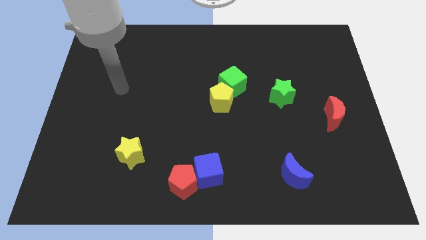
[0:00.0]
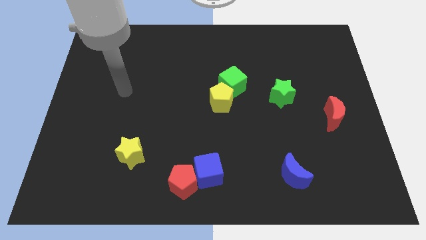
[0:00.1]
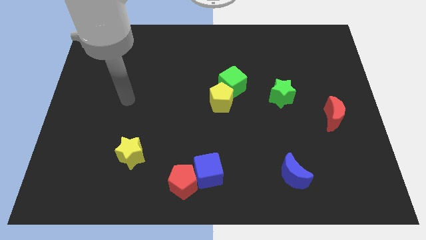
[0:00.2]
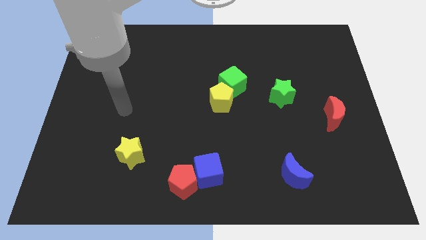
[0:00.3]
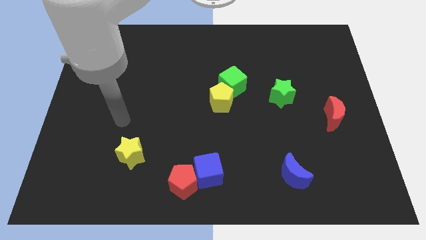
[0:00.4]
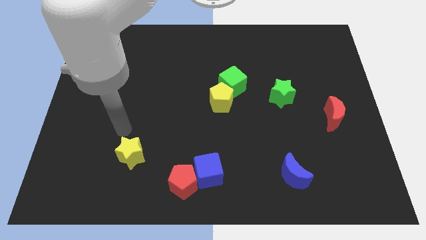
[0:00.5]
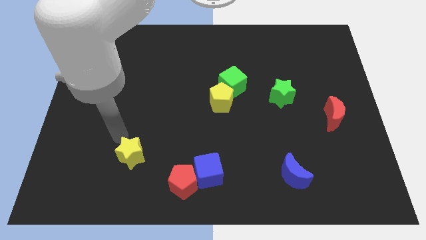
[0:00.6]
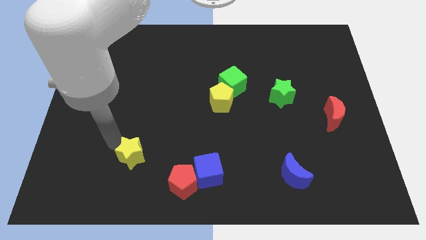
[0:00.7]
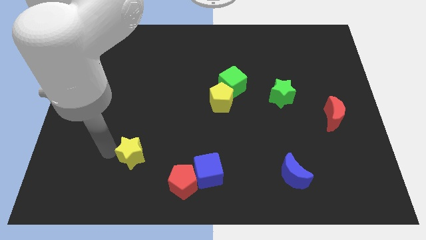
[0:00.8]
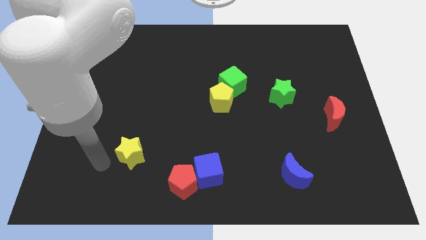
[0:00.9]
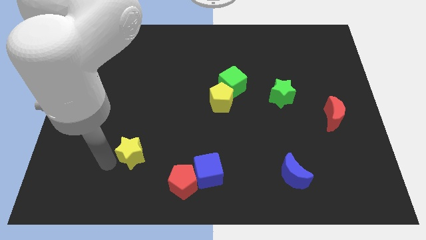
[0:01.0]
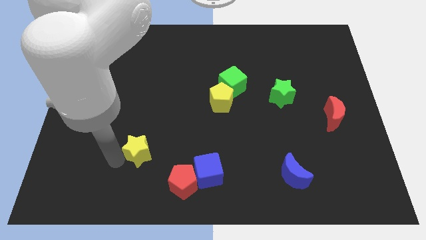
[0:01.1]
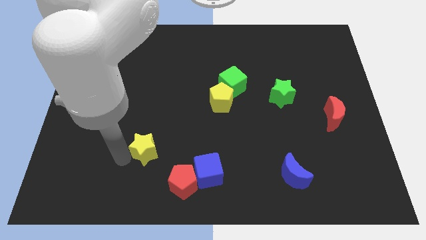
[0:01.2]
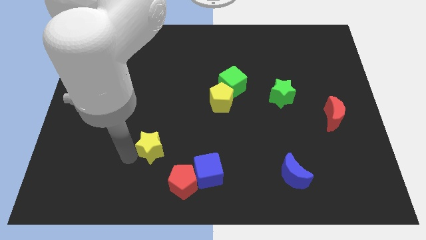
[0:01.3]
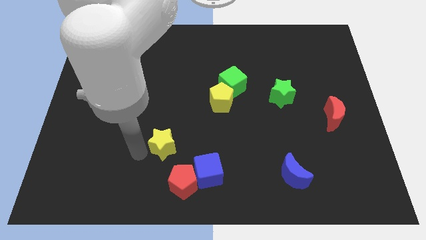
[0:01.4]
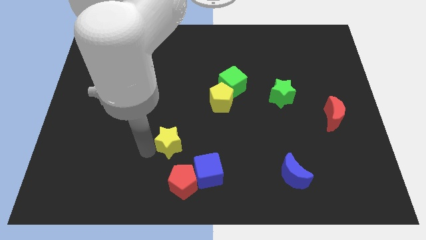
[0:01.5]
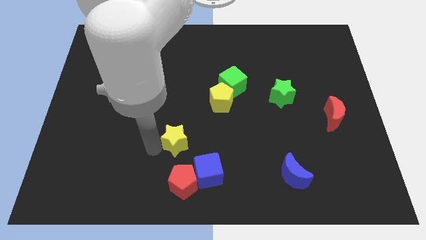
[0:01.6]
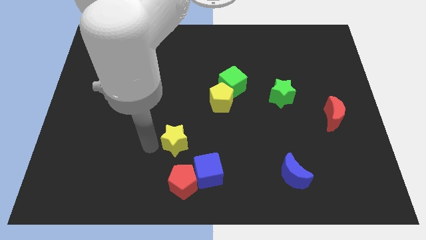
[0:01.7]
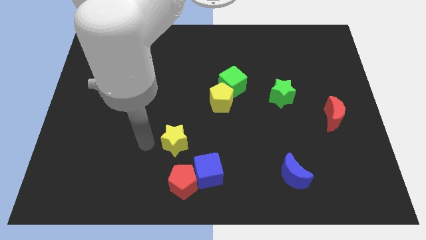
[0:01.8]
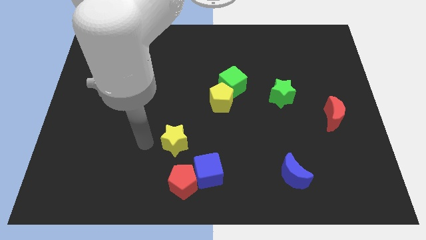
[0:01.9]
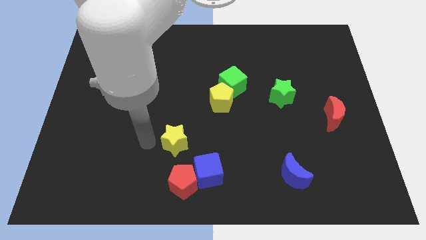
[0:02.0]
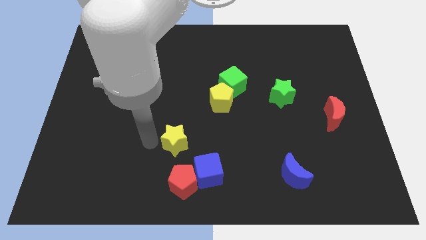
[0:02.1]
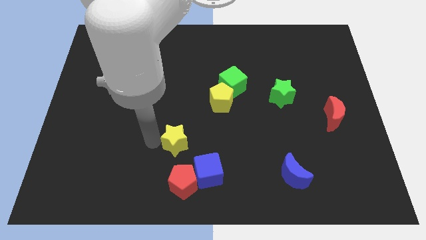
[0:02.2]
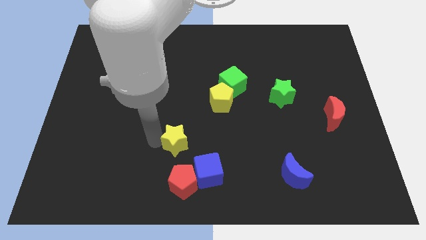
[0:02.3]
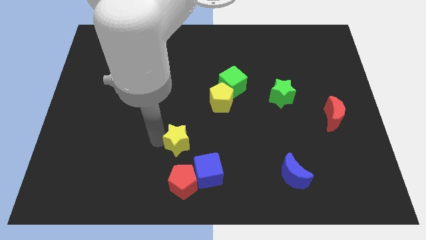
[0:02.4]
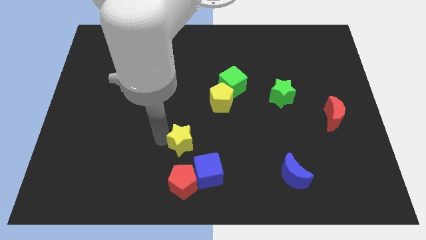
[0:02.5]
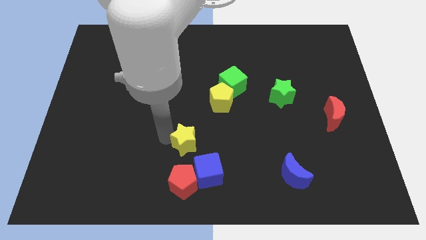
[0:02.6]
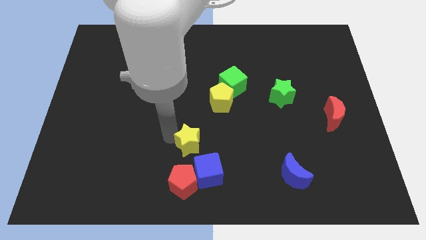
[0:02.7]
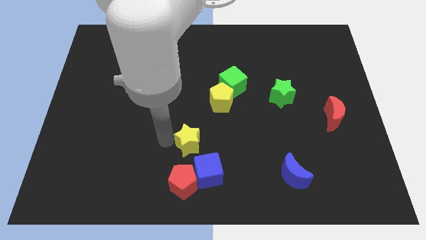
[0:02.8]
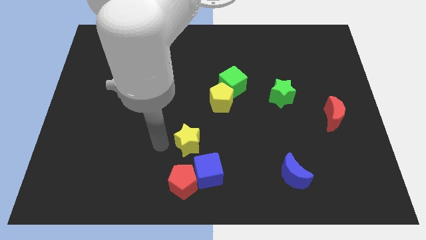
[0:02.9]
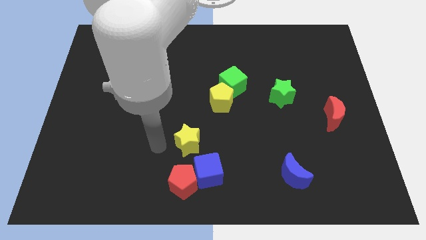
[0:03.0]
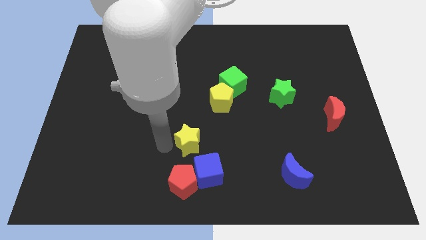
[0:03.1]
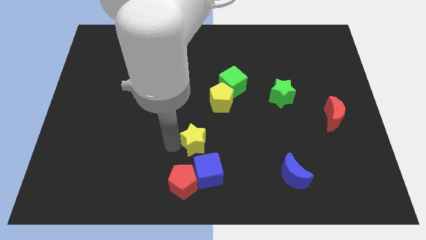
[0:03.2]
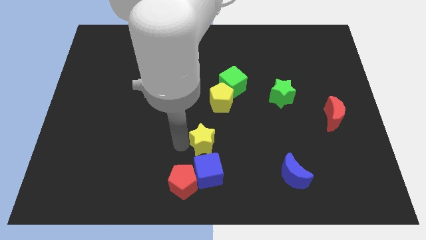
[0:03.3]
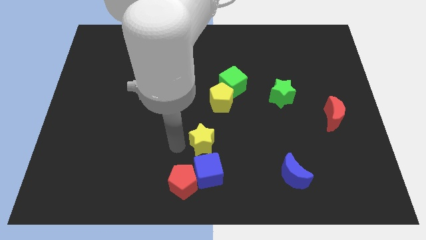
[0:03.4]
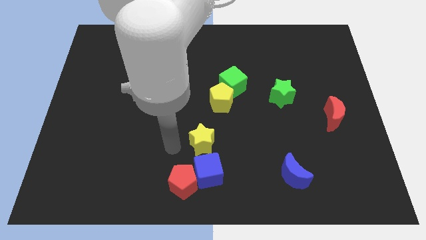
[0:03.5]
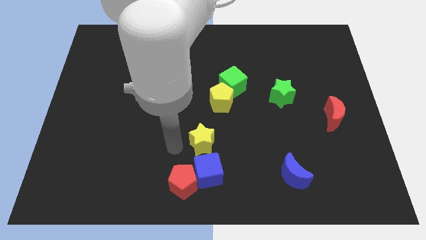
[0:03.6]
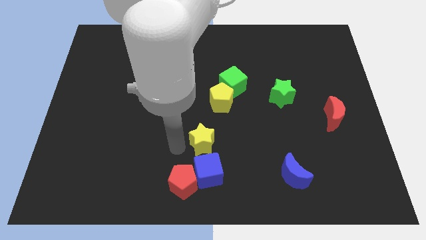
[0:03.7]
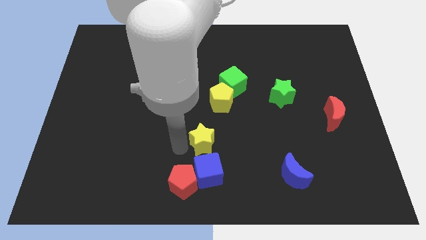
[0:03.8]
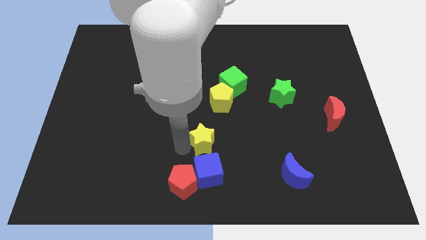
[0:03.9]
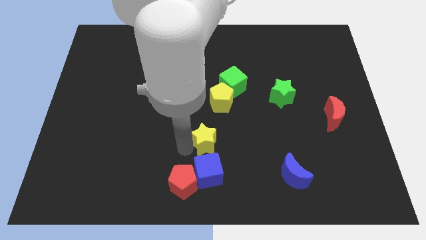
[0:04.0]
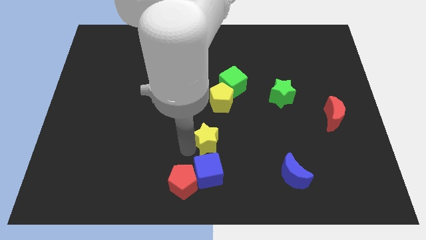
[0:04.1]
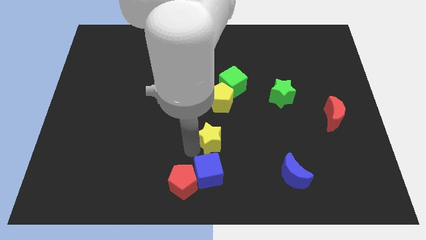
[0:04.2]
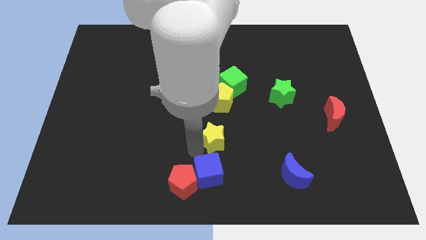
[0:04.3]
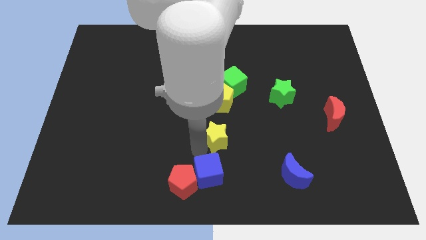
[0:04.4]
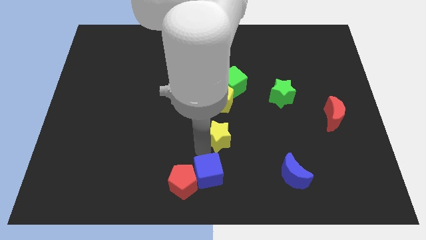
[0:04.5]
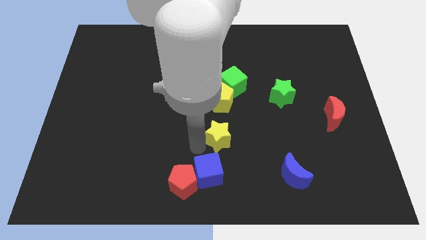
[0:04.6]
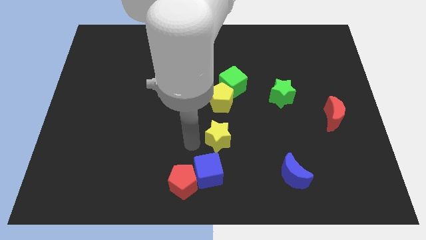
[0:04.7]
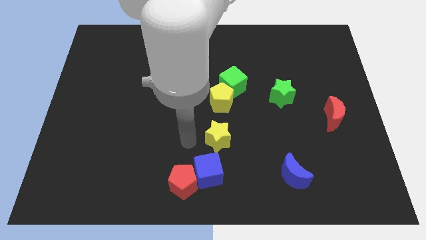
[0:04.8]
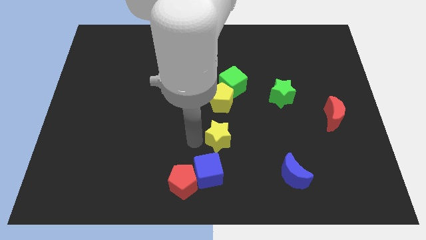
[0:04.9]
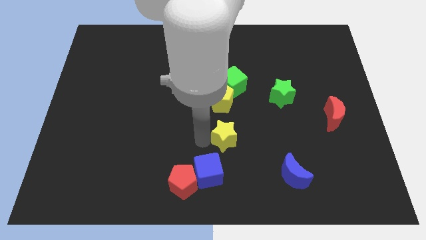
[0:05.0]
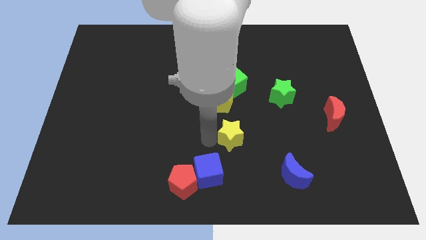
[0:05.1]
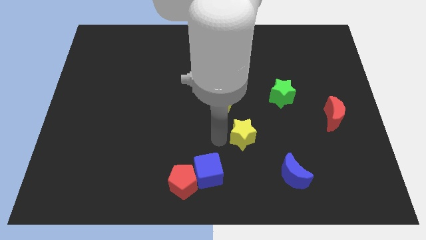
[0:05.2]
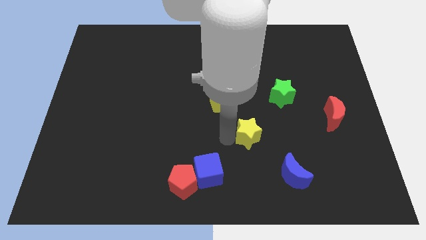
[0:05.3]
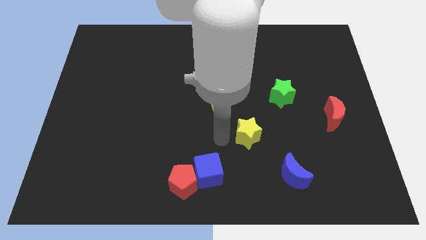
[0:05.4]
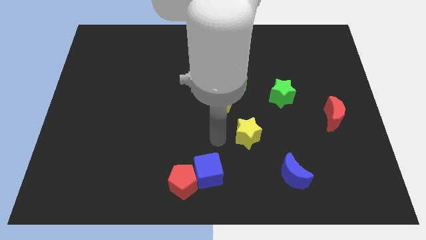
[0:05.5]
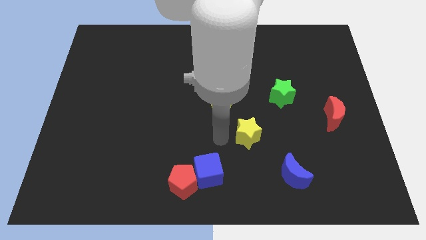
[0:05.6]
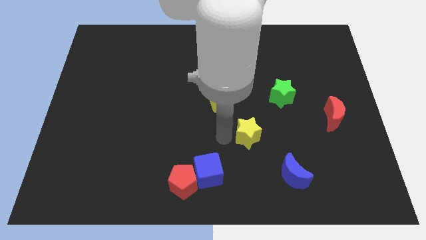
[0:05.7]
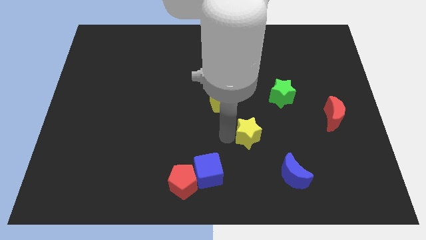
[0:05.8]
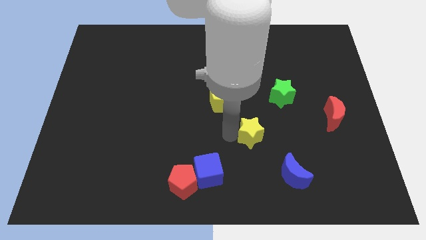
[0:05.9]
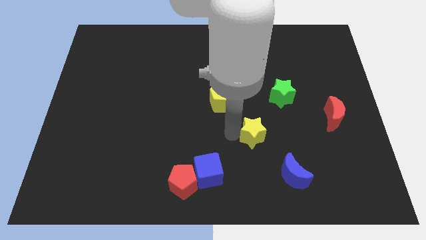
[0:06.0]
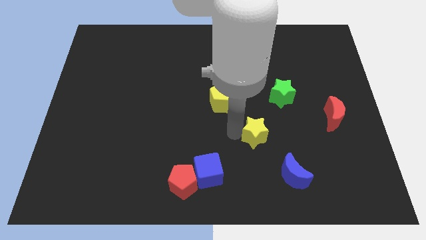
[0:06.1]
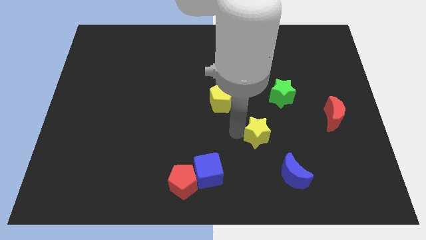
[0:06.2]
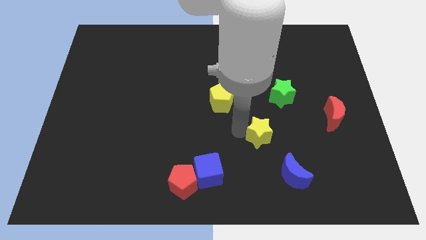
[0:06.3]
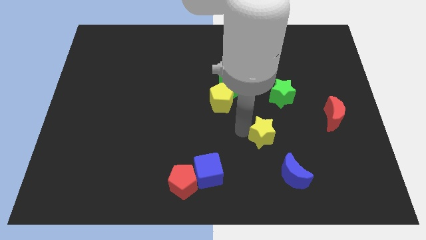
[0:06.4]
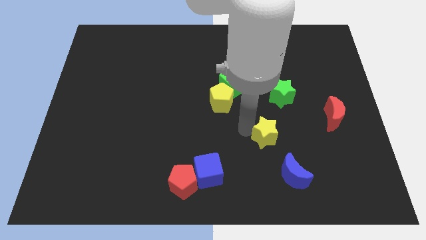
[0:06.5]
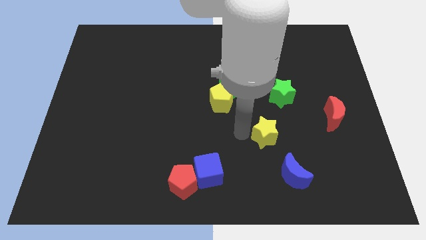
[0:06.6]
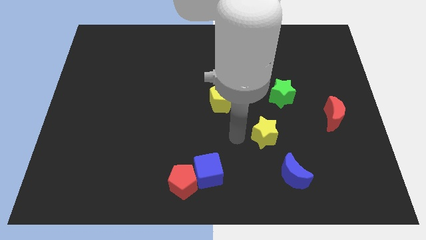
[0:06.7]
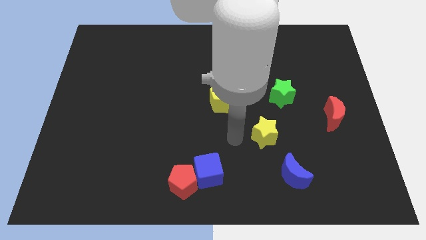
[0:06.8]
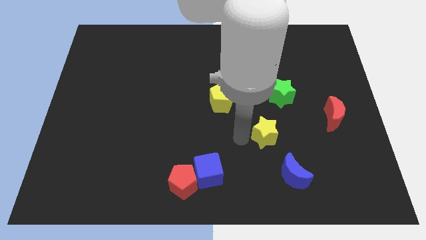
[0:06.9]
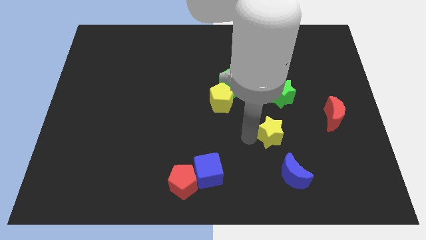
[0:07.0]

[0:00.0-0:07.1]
push the yellow star to the bottom of the green star
